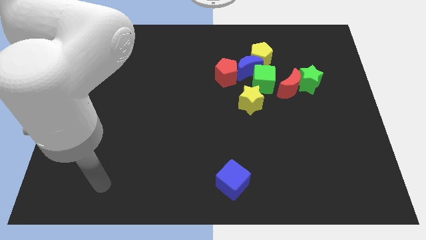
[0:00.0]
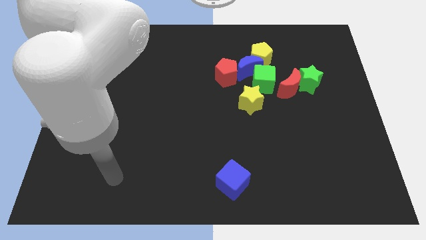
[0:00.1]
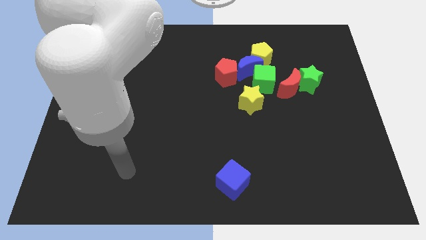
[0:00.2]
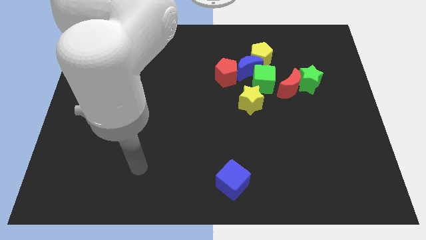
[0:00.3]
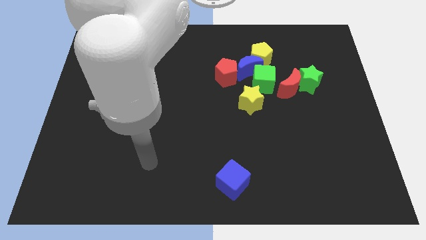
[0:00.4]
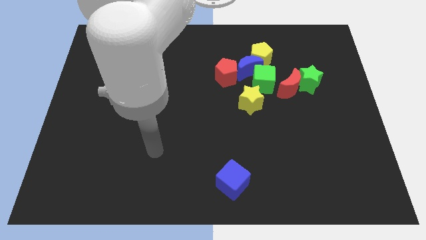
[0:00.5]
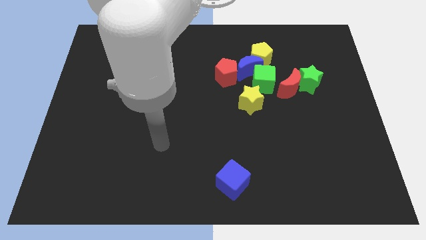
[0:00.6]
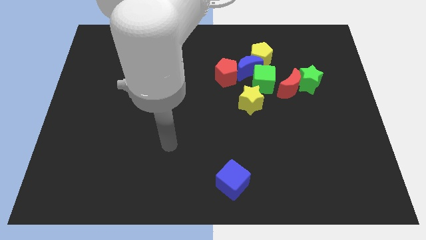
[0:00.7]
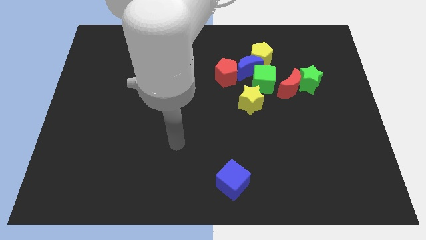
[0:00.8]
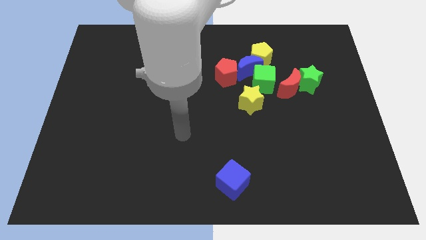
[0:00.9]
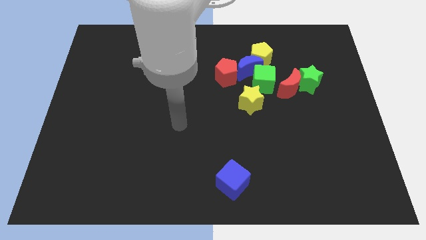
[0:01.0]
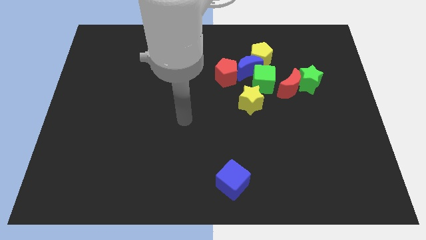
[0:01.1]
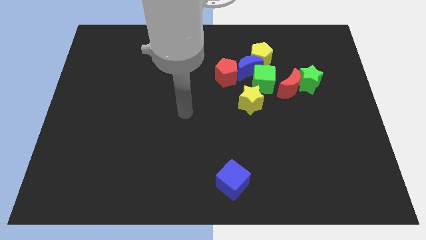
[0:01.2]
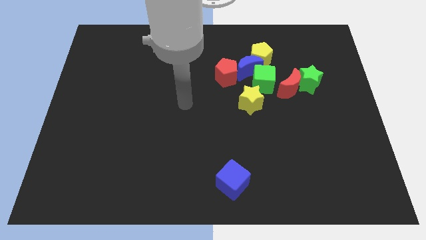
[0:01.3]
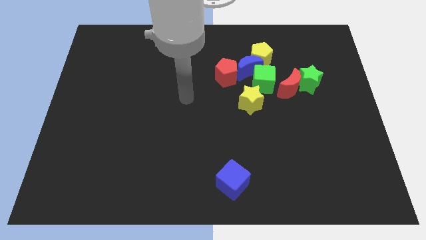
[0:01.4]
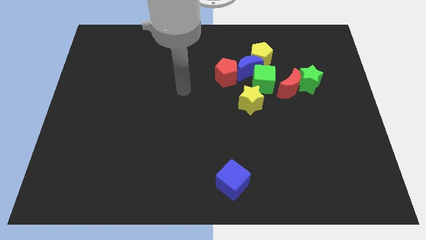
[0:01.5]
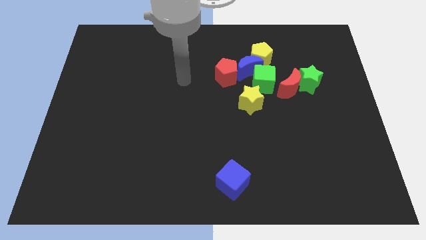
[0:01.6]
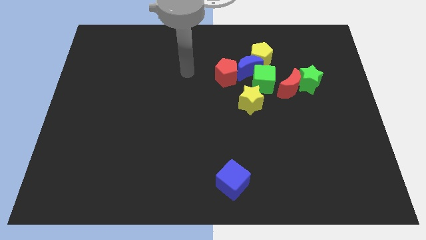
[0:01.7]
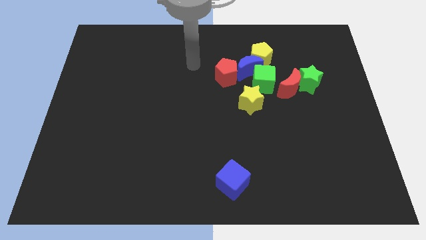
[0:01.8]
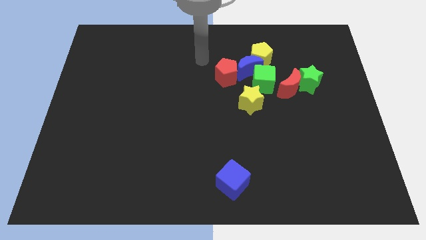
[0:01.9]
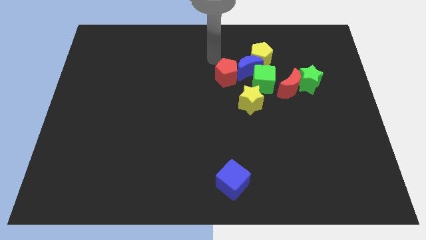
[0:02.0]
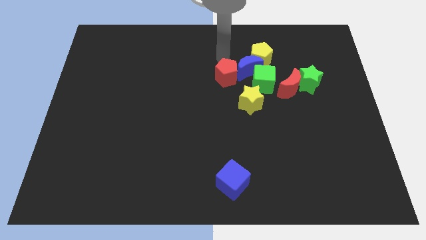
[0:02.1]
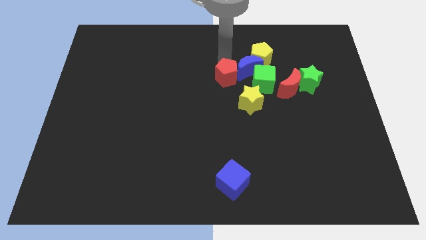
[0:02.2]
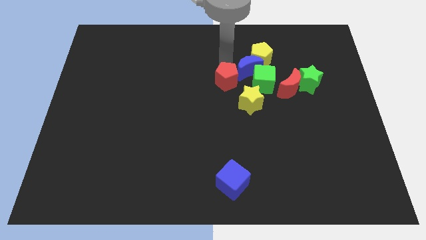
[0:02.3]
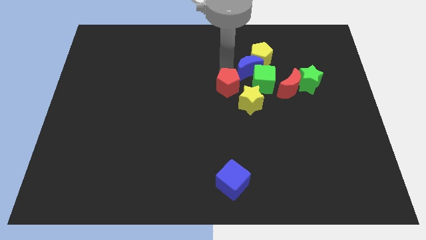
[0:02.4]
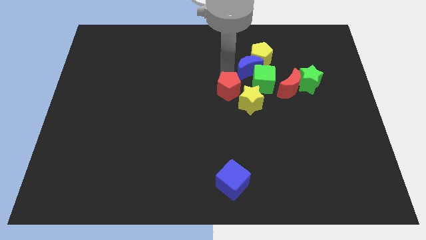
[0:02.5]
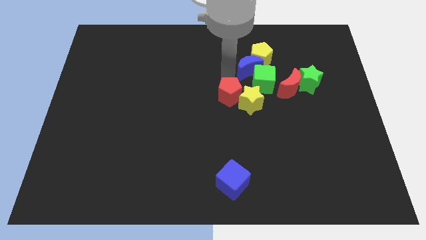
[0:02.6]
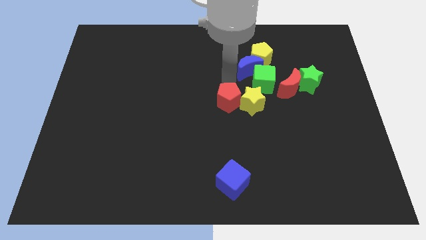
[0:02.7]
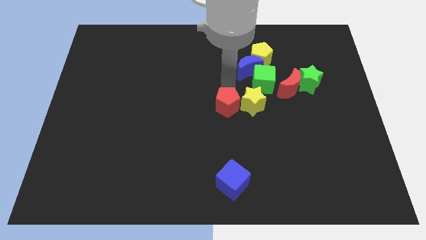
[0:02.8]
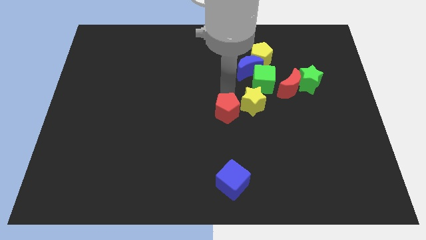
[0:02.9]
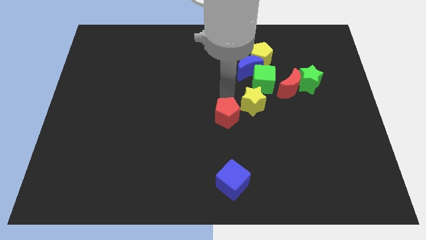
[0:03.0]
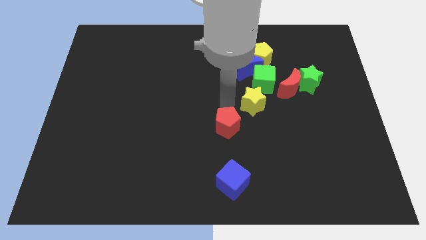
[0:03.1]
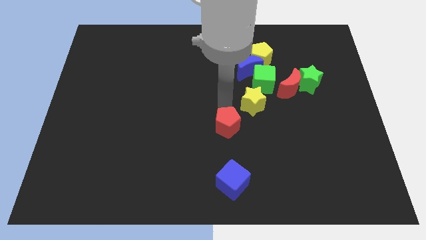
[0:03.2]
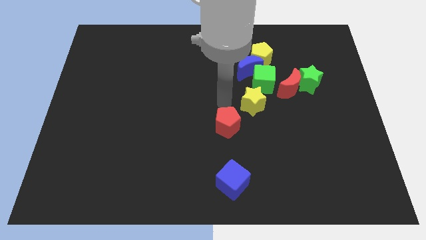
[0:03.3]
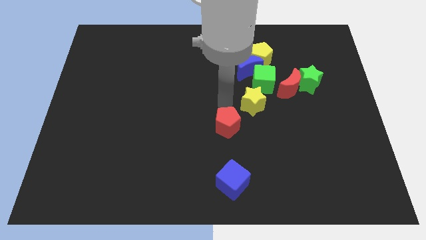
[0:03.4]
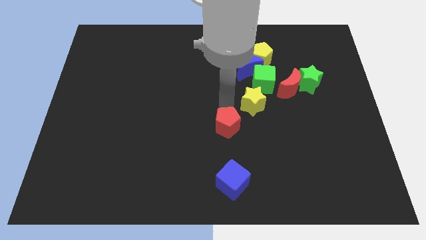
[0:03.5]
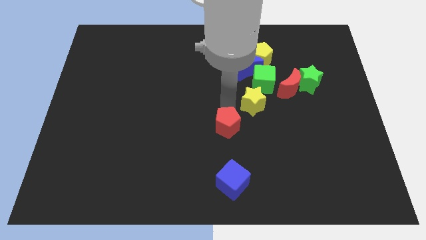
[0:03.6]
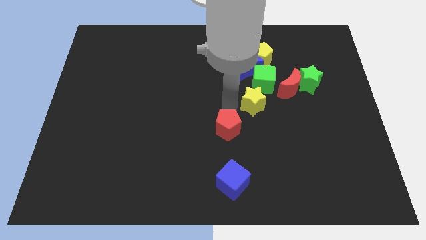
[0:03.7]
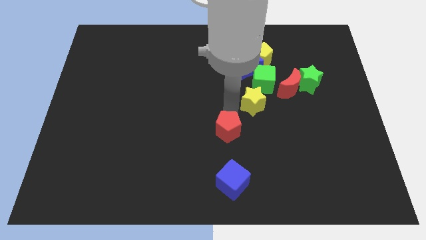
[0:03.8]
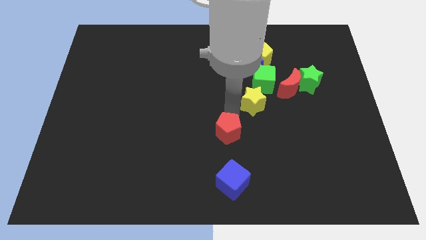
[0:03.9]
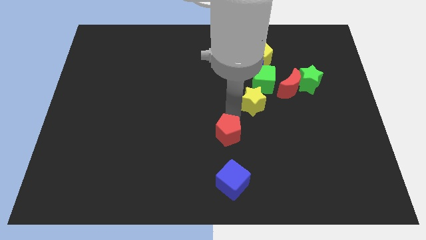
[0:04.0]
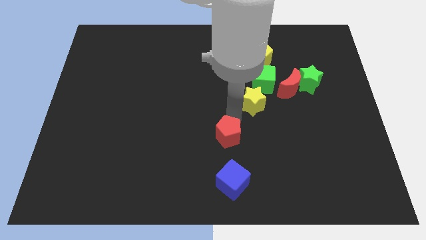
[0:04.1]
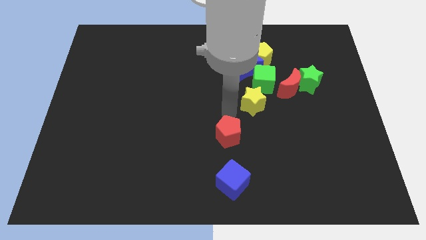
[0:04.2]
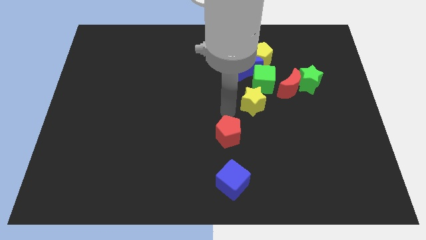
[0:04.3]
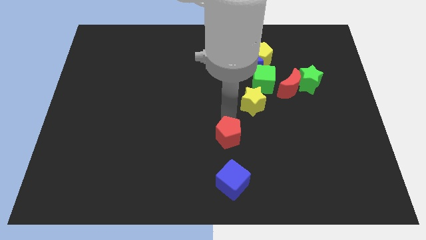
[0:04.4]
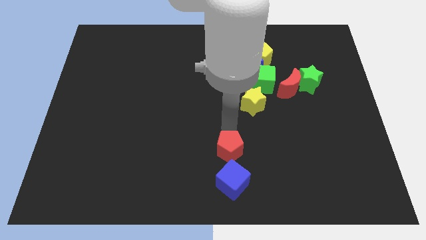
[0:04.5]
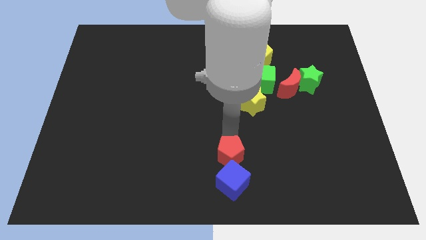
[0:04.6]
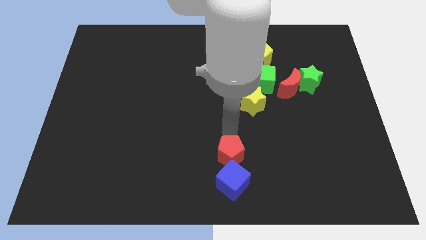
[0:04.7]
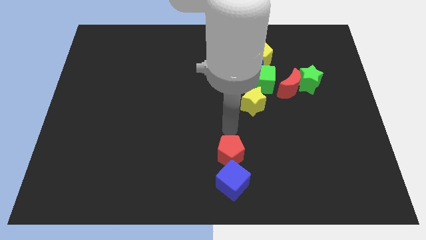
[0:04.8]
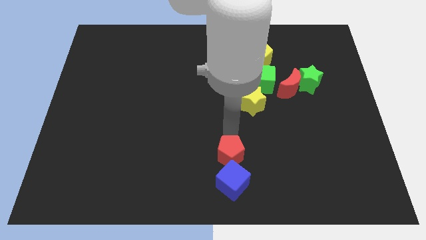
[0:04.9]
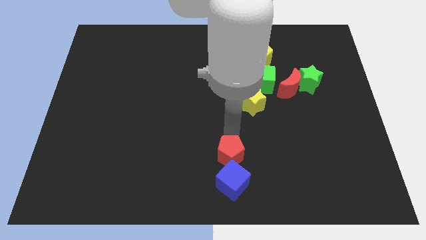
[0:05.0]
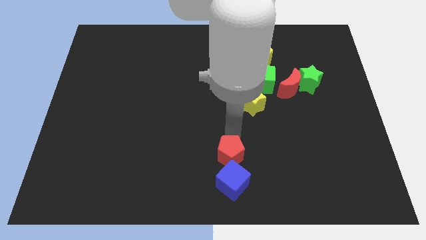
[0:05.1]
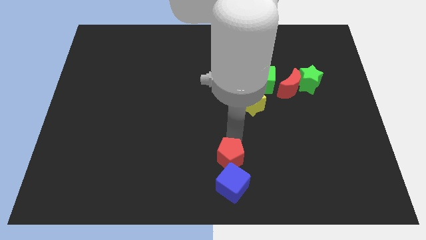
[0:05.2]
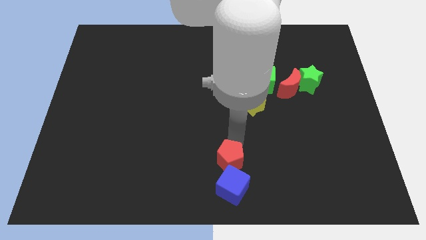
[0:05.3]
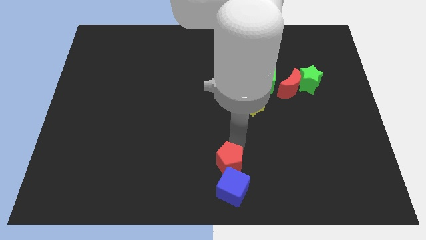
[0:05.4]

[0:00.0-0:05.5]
move the red pentagon next to the blue cube

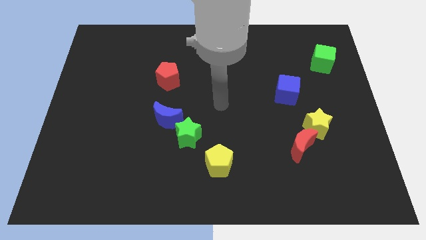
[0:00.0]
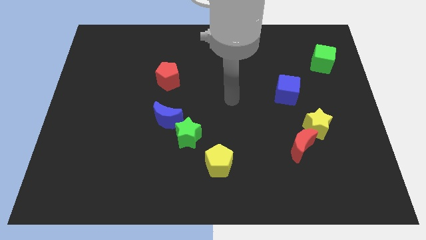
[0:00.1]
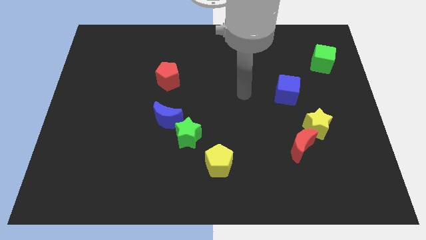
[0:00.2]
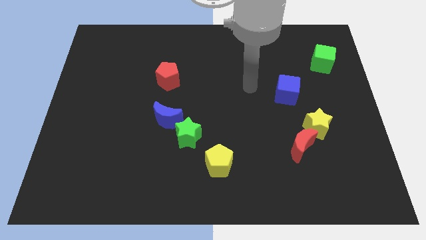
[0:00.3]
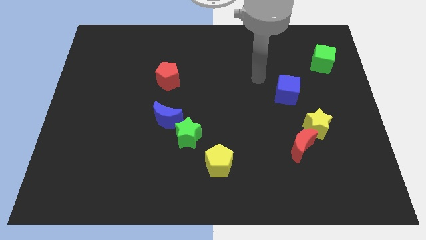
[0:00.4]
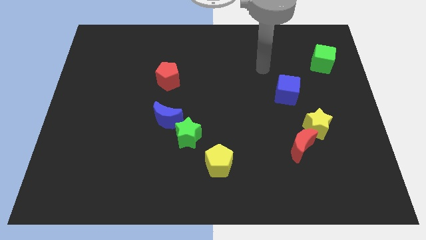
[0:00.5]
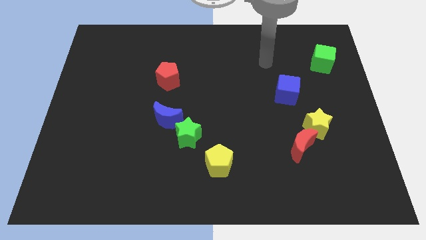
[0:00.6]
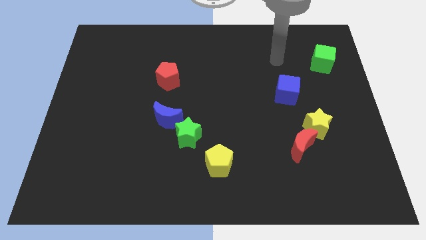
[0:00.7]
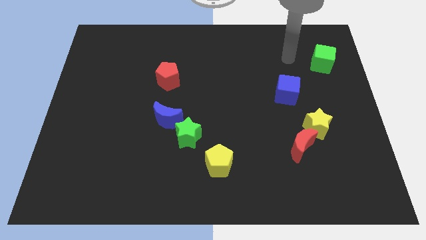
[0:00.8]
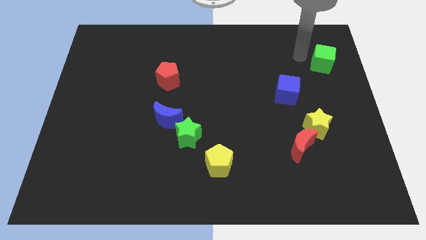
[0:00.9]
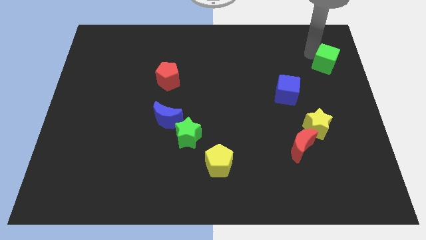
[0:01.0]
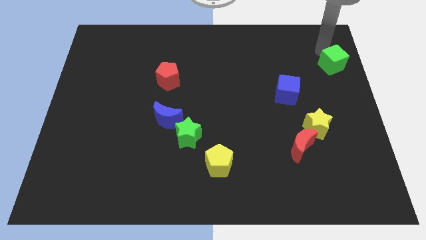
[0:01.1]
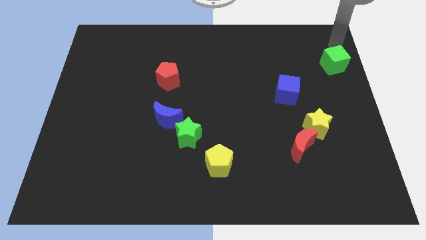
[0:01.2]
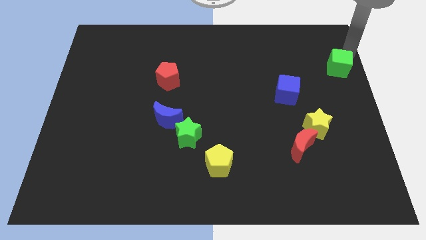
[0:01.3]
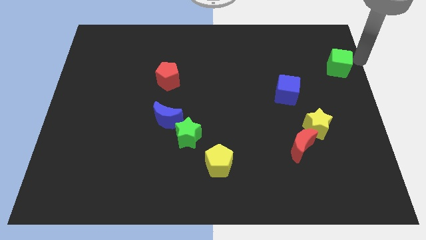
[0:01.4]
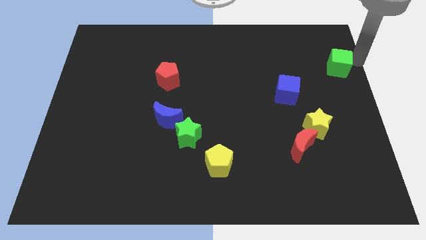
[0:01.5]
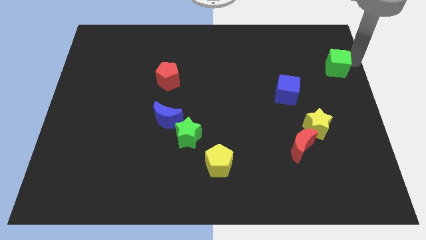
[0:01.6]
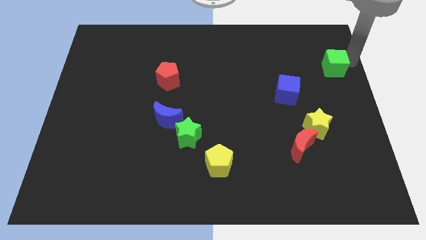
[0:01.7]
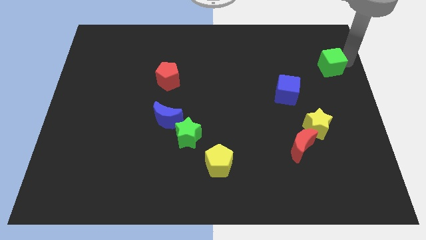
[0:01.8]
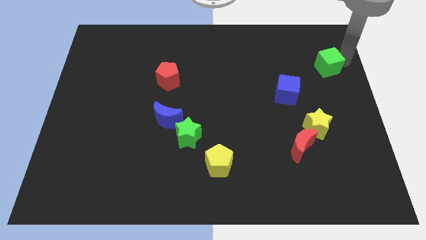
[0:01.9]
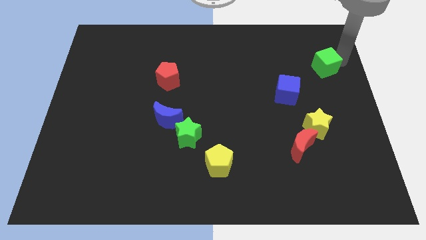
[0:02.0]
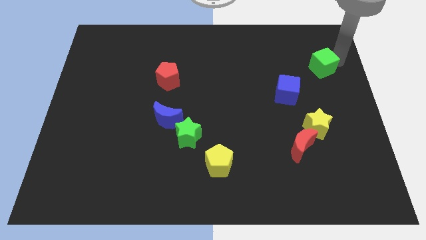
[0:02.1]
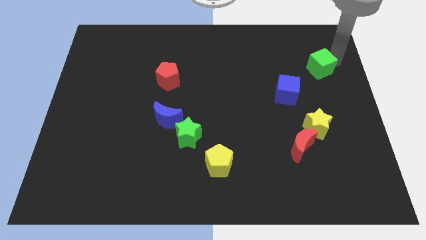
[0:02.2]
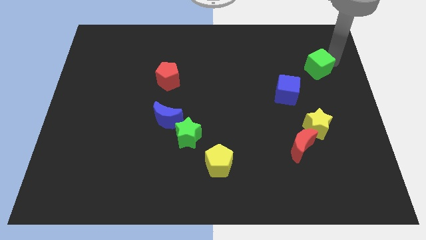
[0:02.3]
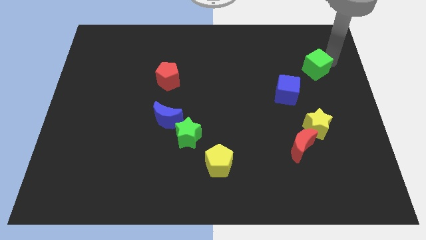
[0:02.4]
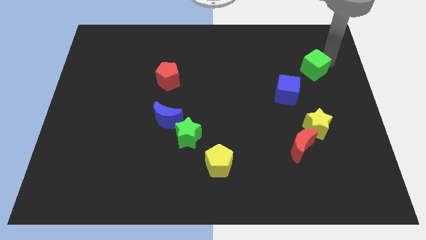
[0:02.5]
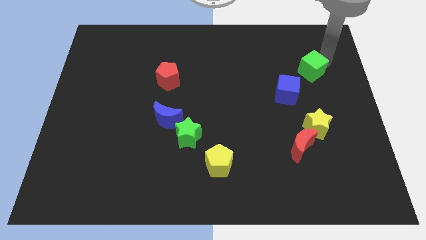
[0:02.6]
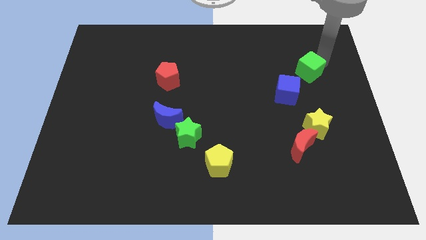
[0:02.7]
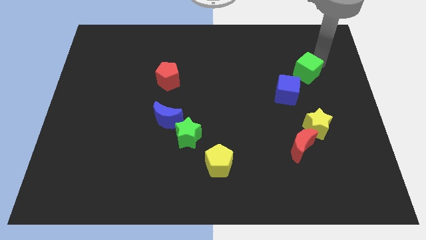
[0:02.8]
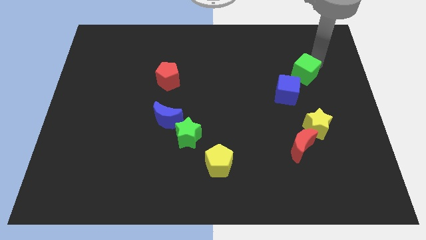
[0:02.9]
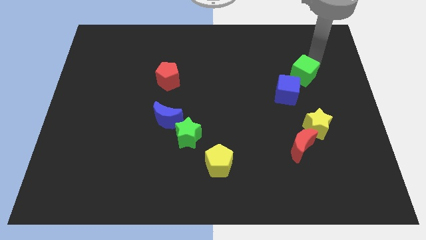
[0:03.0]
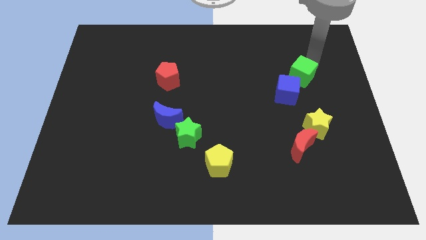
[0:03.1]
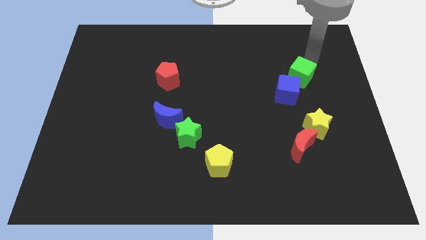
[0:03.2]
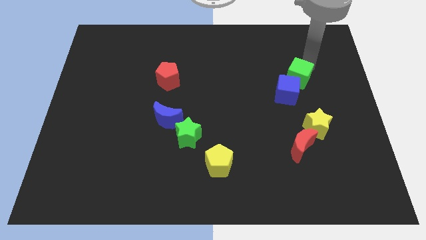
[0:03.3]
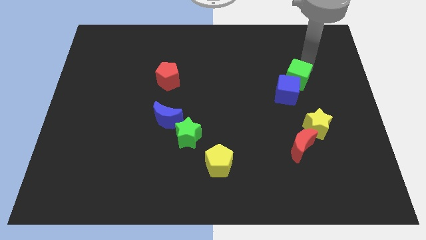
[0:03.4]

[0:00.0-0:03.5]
push the green cube next to the blue cube
